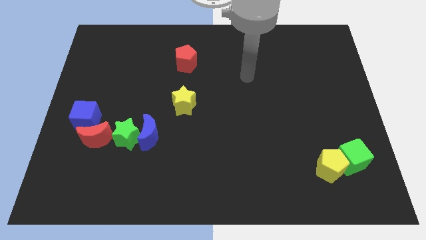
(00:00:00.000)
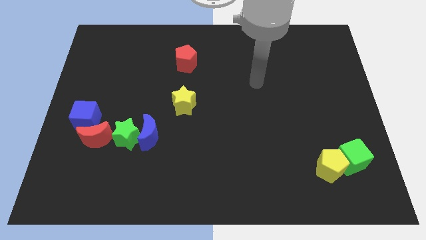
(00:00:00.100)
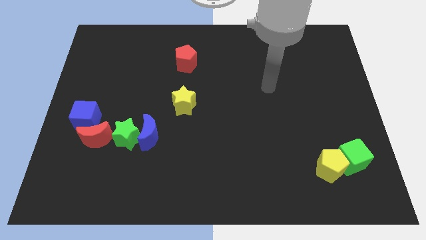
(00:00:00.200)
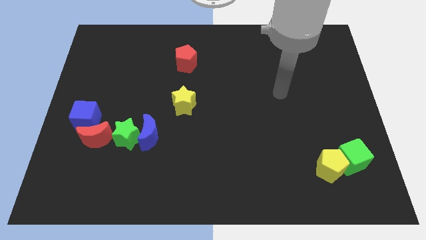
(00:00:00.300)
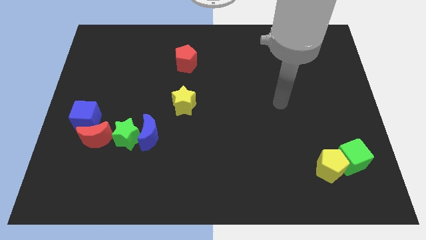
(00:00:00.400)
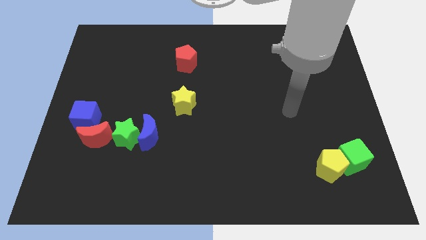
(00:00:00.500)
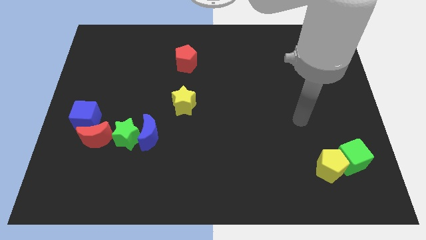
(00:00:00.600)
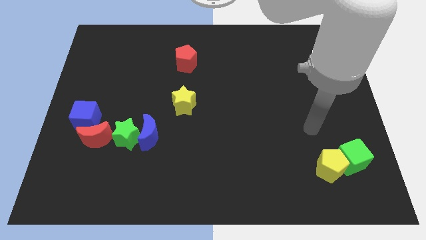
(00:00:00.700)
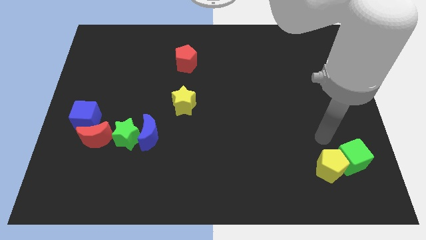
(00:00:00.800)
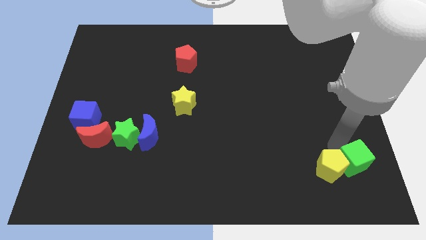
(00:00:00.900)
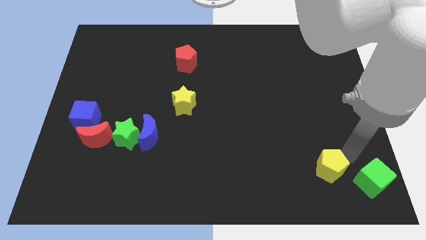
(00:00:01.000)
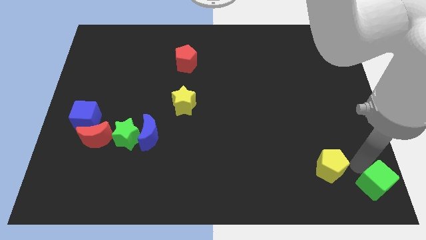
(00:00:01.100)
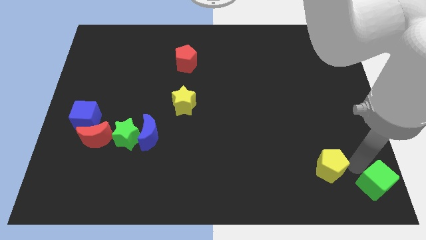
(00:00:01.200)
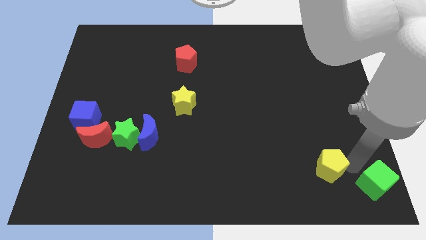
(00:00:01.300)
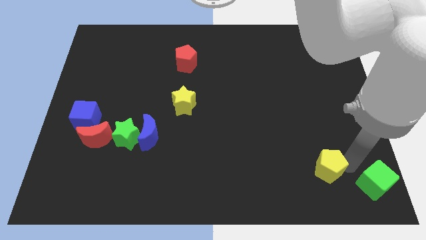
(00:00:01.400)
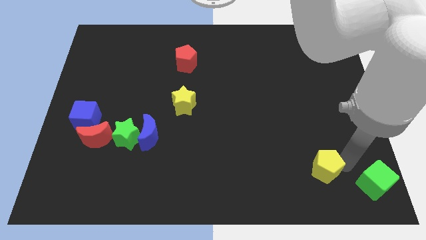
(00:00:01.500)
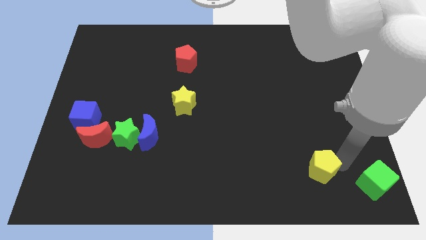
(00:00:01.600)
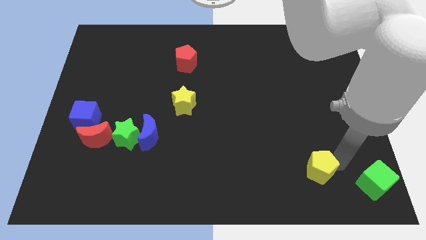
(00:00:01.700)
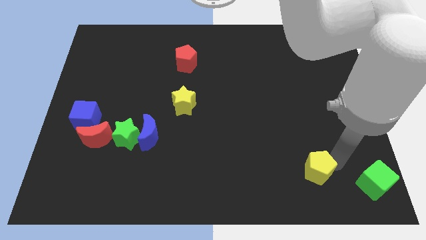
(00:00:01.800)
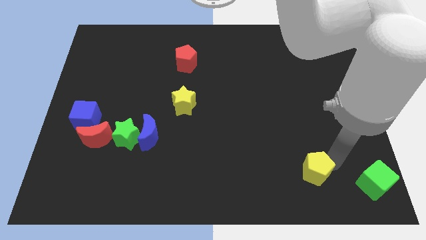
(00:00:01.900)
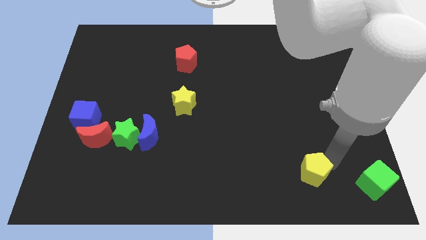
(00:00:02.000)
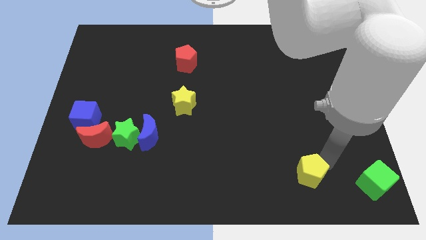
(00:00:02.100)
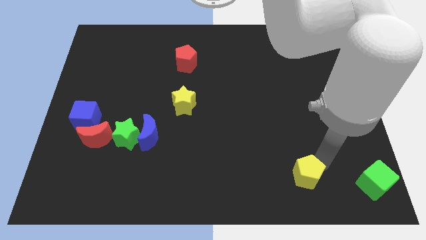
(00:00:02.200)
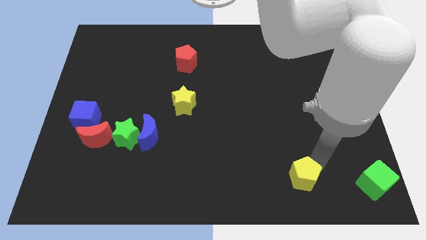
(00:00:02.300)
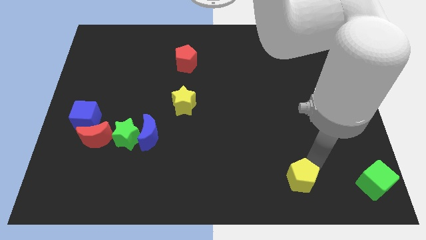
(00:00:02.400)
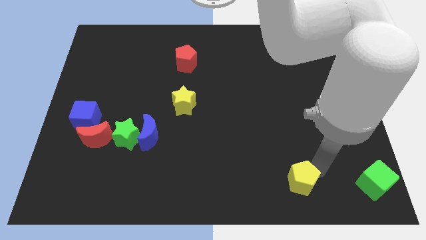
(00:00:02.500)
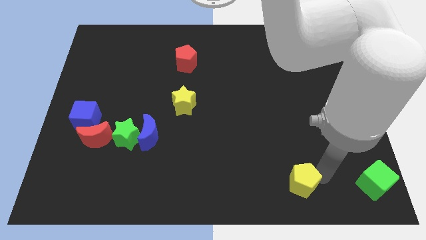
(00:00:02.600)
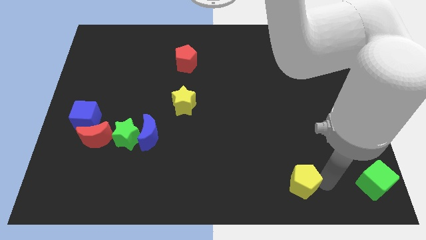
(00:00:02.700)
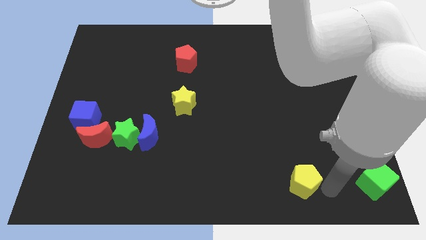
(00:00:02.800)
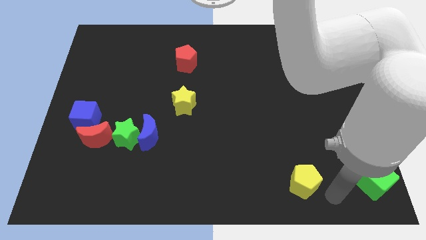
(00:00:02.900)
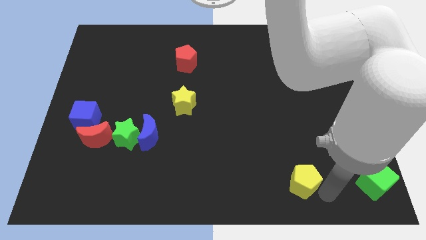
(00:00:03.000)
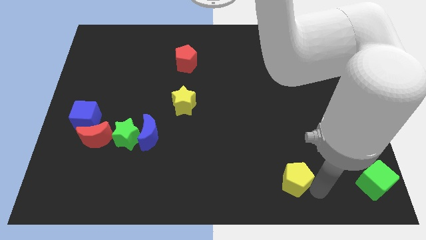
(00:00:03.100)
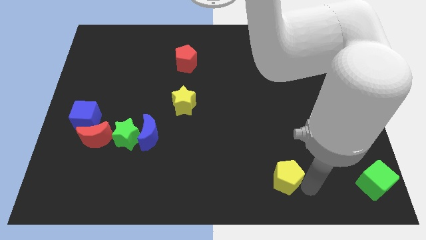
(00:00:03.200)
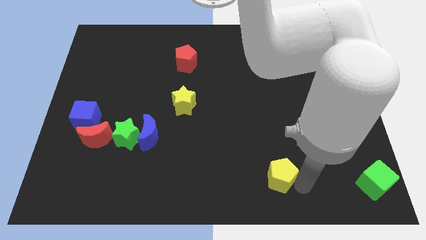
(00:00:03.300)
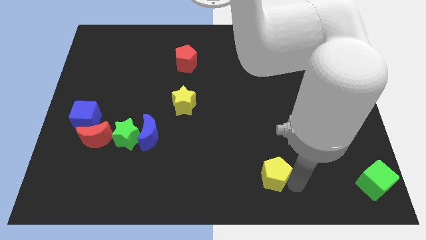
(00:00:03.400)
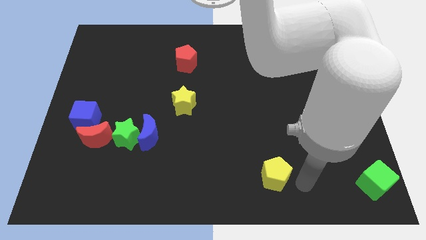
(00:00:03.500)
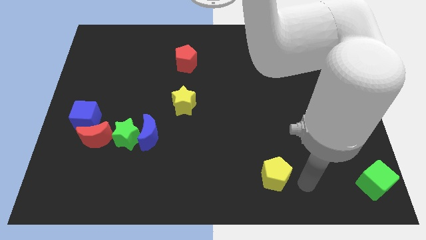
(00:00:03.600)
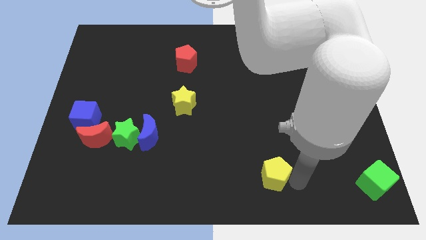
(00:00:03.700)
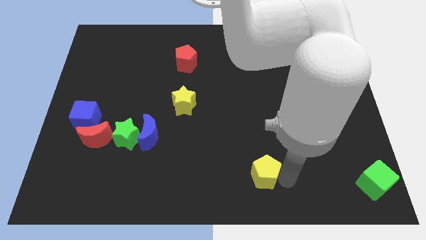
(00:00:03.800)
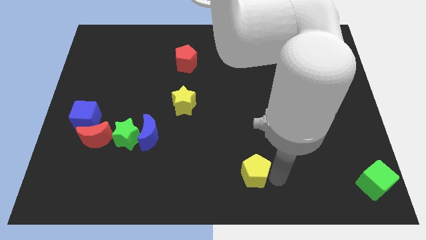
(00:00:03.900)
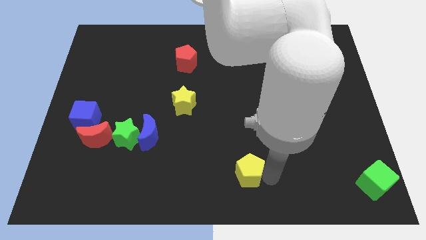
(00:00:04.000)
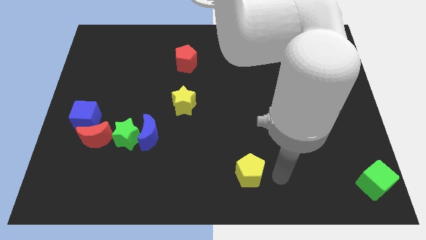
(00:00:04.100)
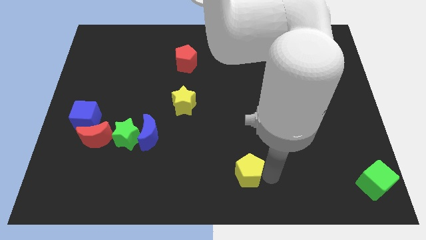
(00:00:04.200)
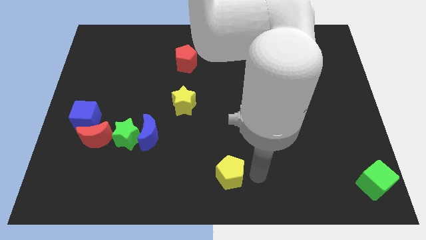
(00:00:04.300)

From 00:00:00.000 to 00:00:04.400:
move the yellow pentagon to the left

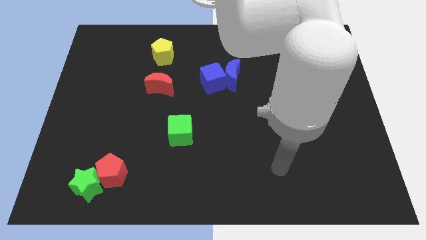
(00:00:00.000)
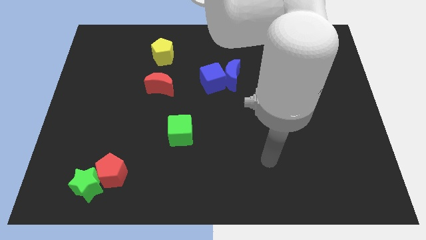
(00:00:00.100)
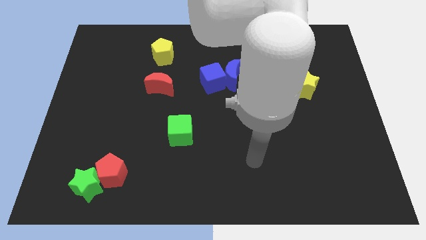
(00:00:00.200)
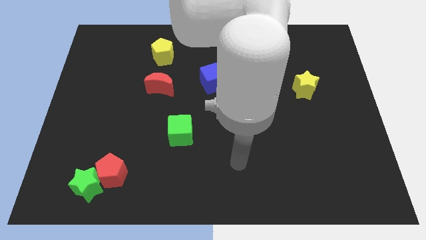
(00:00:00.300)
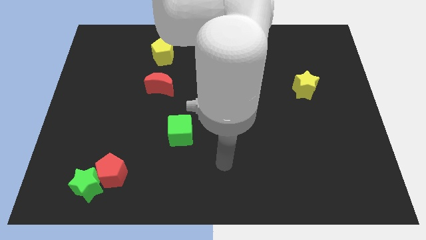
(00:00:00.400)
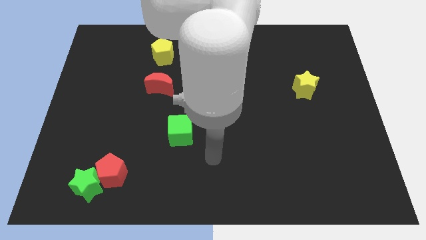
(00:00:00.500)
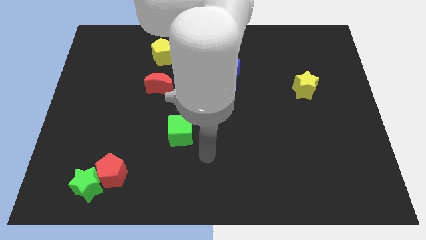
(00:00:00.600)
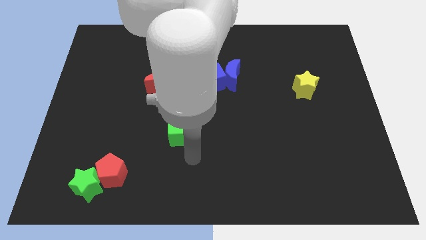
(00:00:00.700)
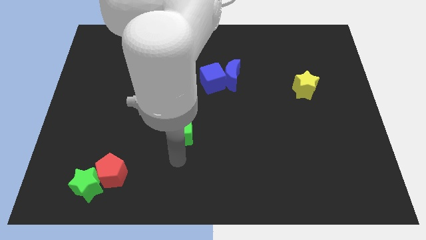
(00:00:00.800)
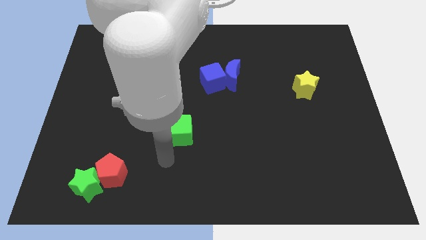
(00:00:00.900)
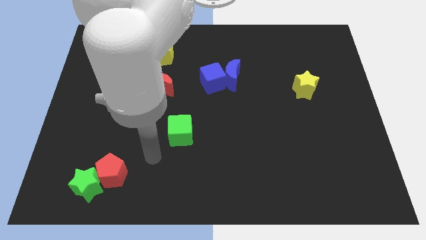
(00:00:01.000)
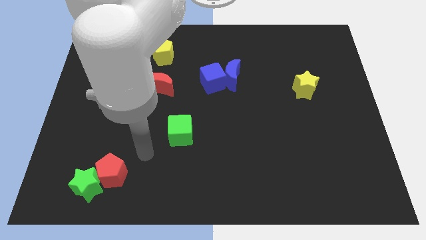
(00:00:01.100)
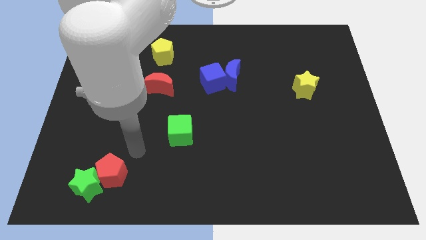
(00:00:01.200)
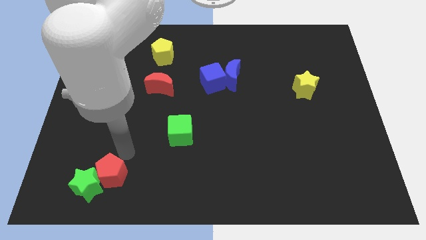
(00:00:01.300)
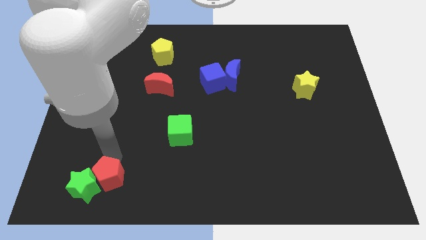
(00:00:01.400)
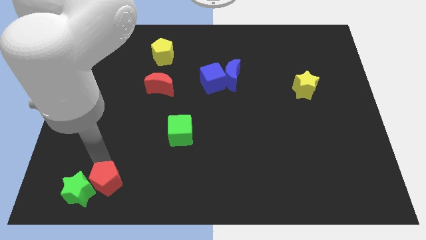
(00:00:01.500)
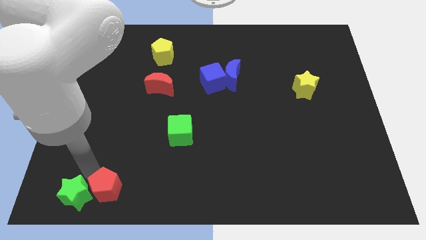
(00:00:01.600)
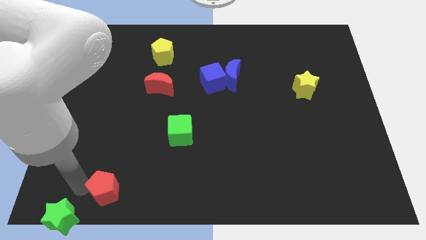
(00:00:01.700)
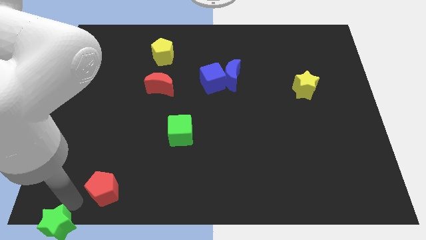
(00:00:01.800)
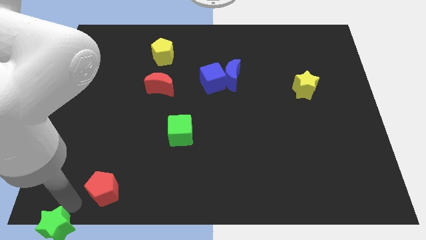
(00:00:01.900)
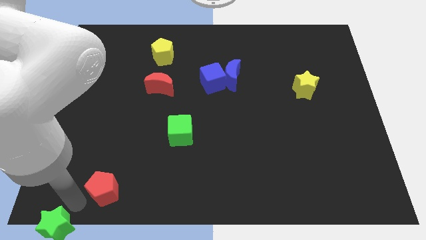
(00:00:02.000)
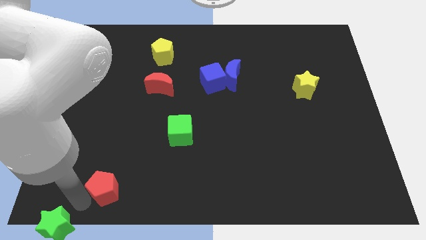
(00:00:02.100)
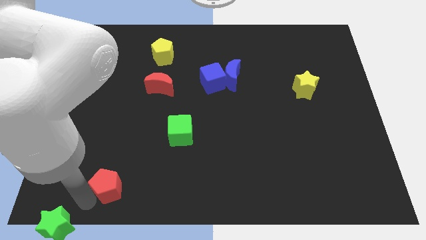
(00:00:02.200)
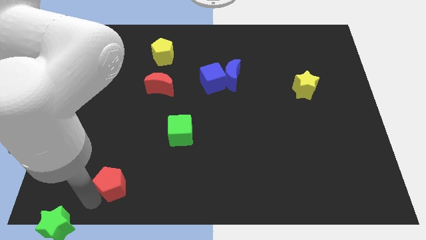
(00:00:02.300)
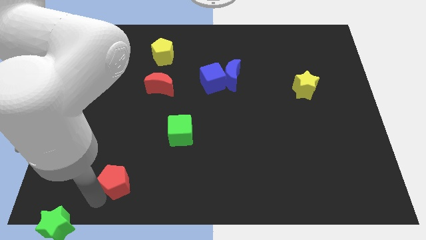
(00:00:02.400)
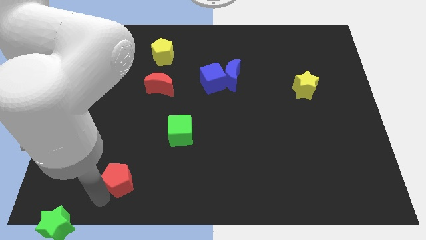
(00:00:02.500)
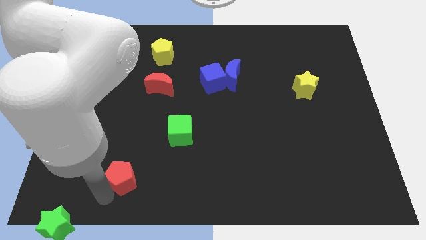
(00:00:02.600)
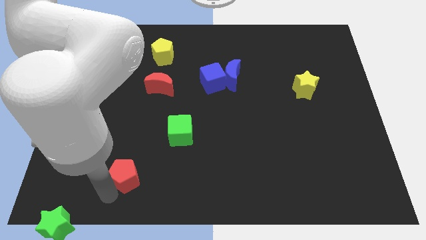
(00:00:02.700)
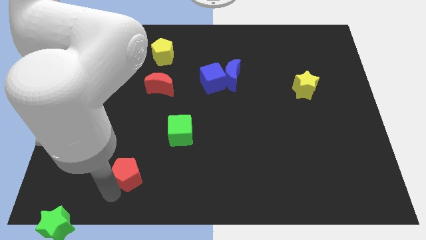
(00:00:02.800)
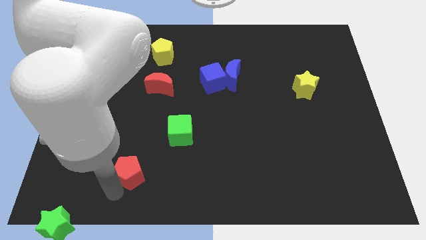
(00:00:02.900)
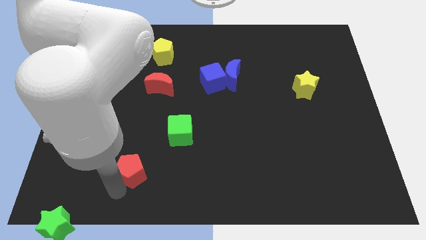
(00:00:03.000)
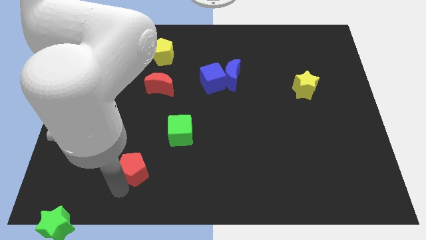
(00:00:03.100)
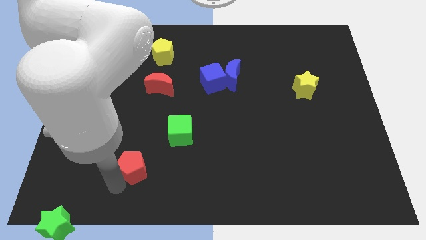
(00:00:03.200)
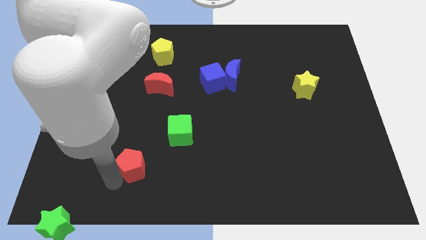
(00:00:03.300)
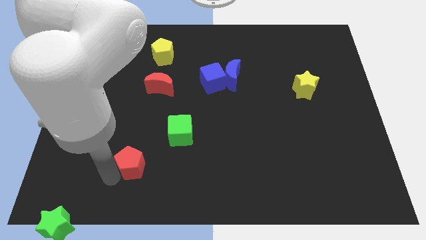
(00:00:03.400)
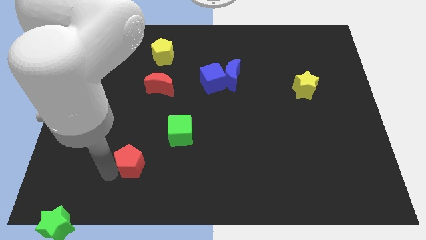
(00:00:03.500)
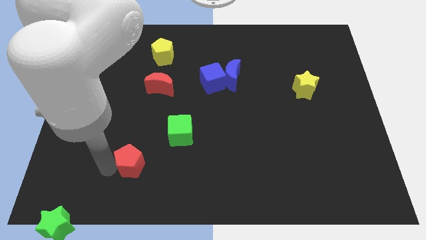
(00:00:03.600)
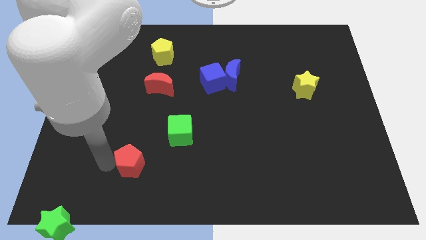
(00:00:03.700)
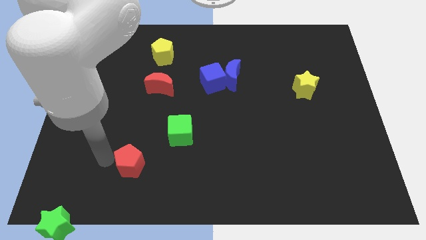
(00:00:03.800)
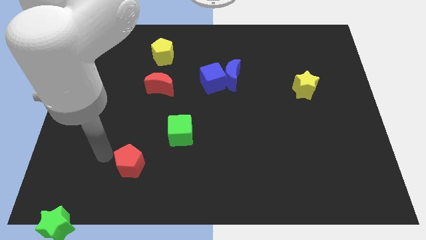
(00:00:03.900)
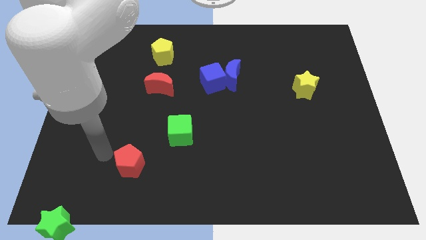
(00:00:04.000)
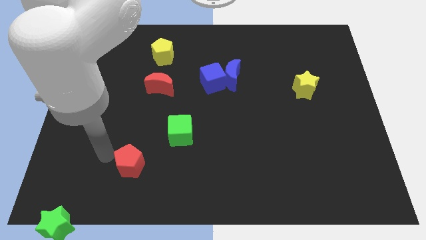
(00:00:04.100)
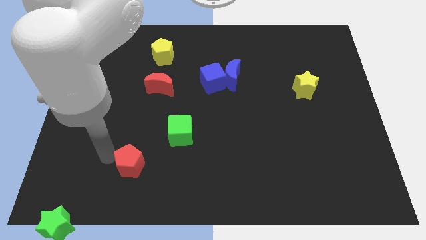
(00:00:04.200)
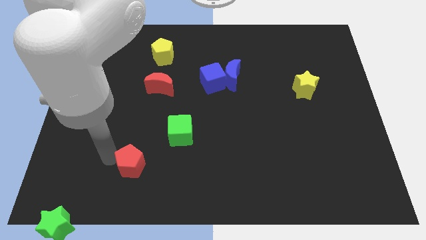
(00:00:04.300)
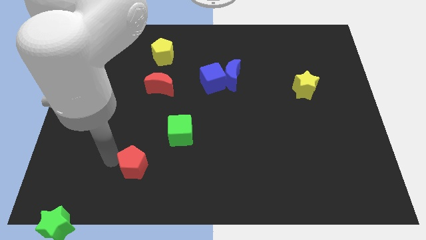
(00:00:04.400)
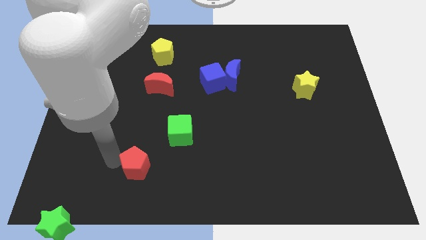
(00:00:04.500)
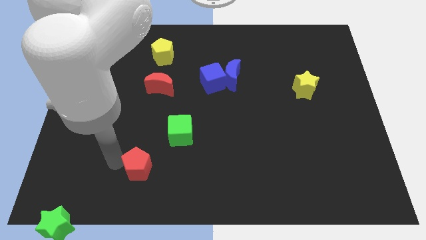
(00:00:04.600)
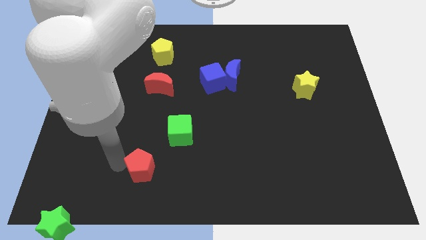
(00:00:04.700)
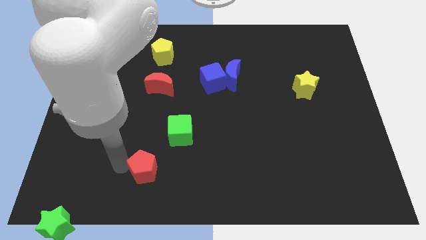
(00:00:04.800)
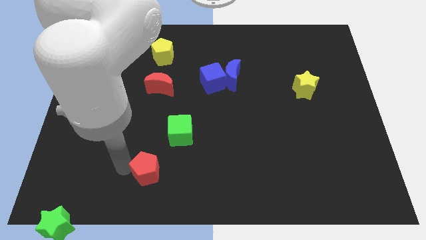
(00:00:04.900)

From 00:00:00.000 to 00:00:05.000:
push the red pentagon slightly to the right
